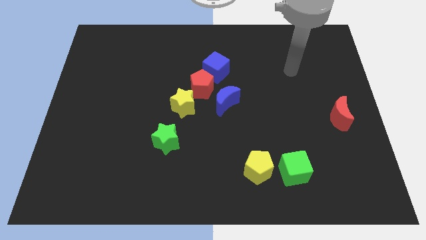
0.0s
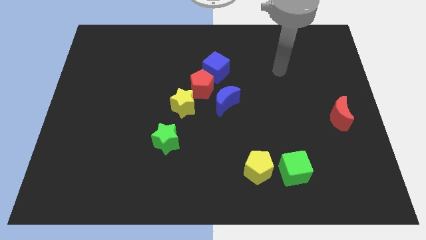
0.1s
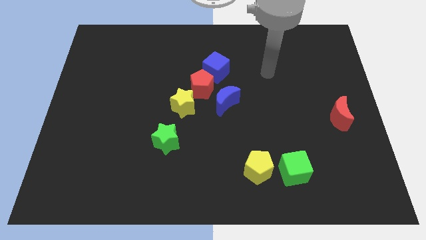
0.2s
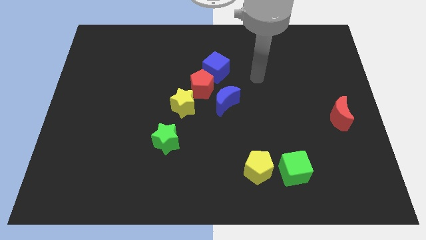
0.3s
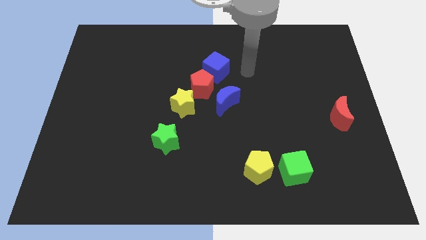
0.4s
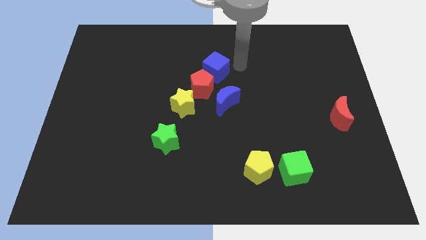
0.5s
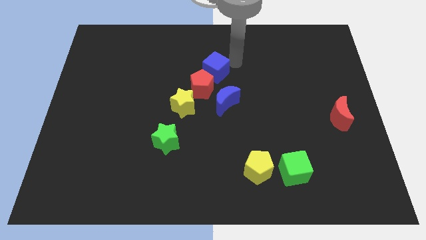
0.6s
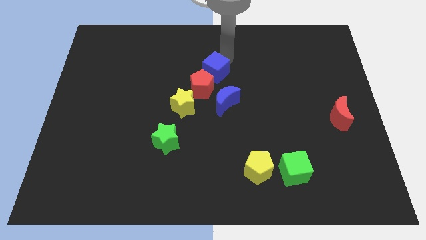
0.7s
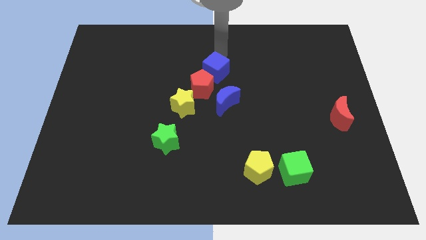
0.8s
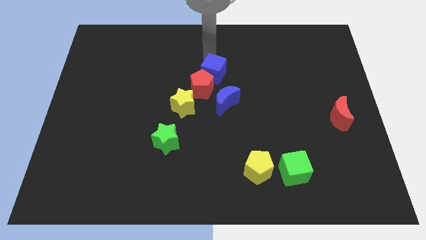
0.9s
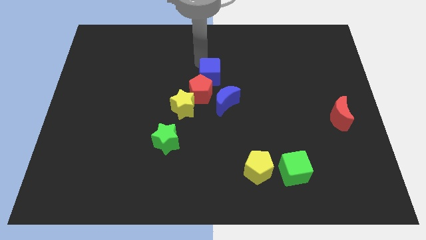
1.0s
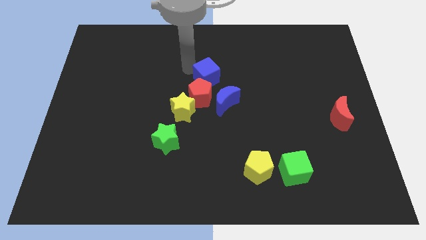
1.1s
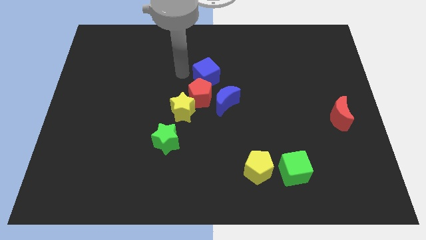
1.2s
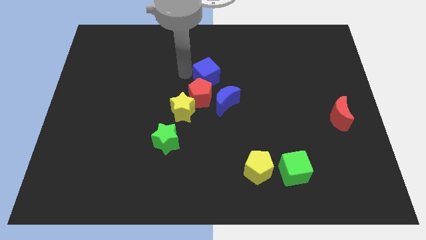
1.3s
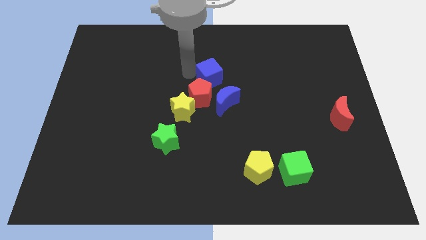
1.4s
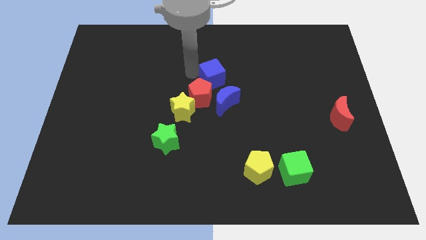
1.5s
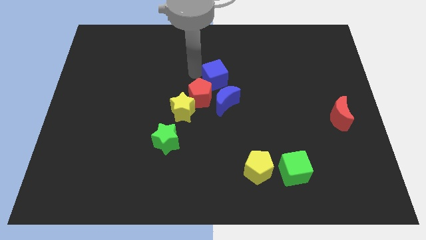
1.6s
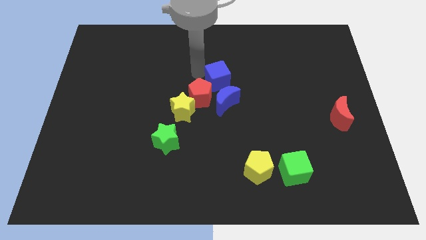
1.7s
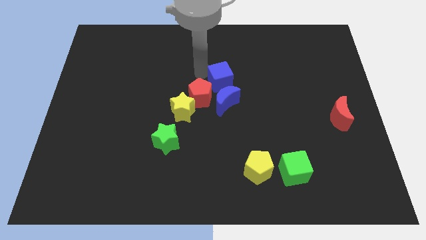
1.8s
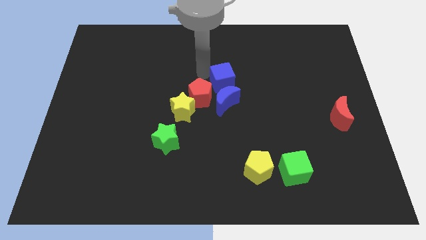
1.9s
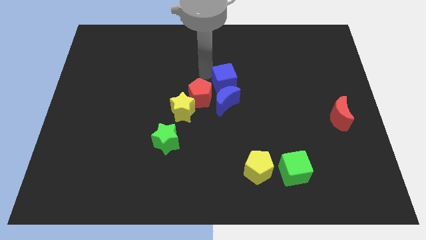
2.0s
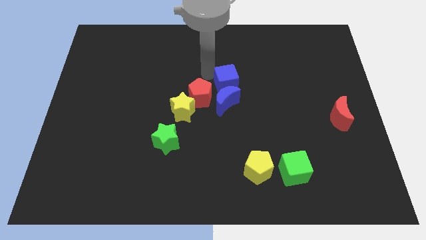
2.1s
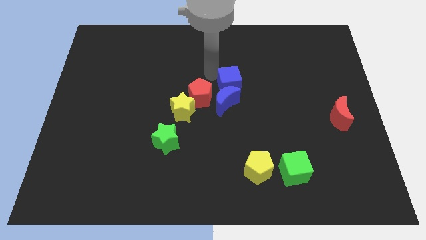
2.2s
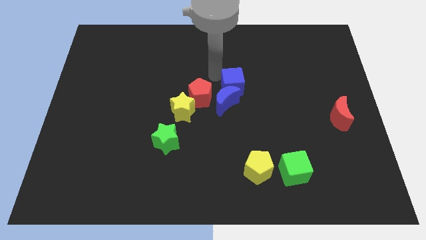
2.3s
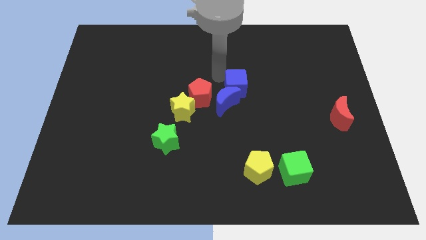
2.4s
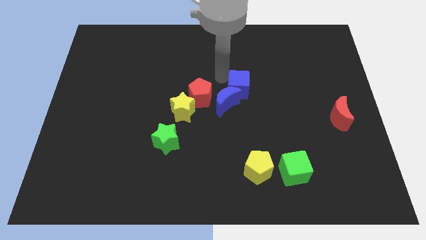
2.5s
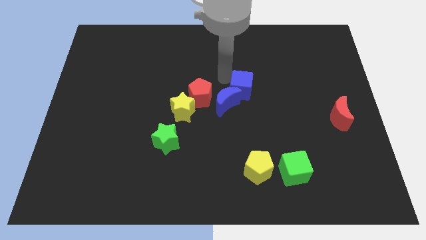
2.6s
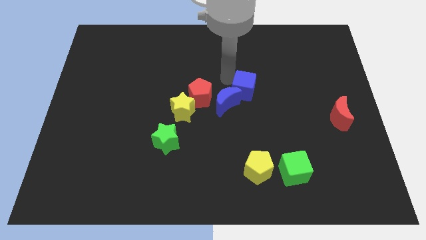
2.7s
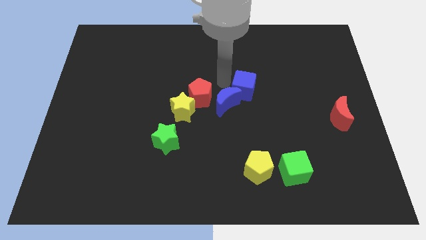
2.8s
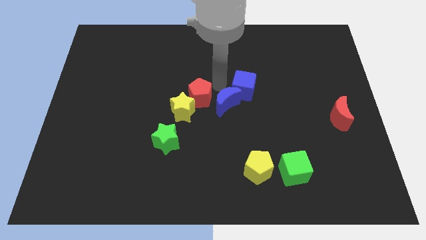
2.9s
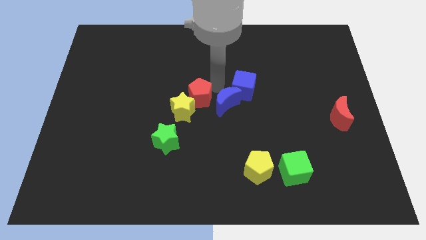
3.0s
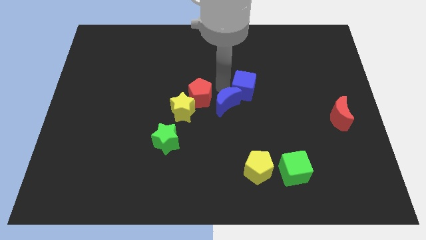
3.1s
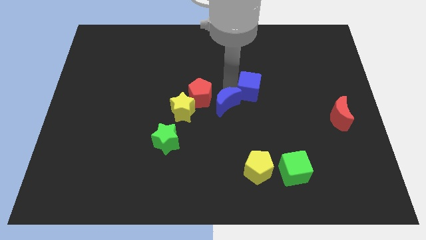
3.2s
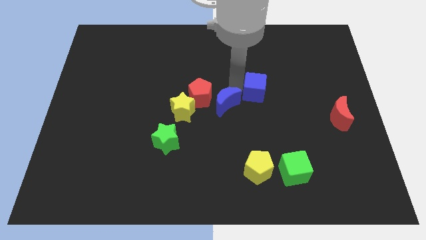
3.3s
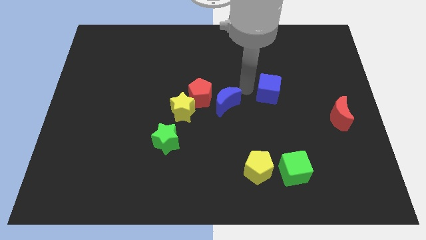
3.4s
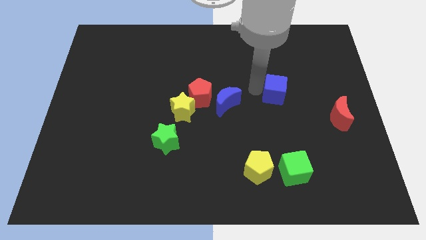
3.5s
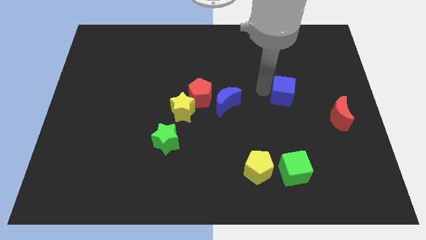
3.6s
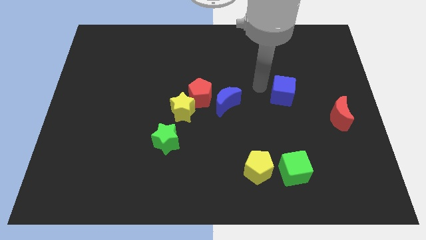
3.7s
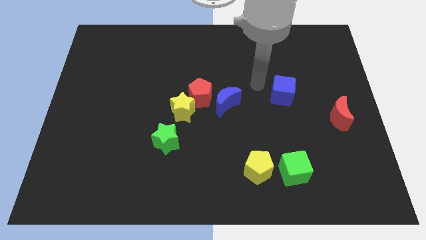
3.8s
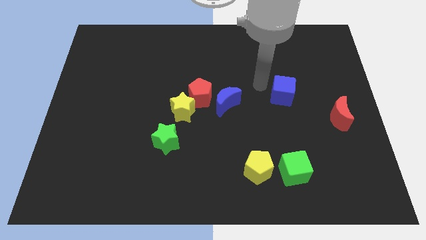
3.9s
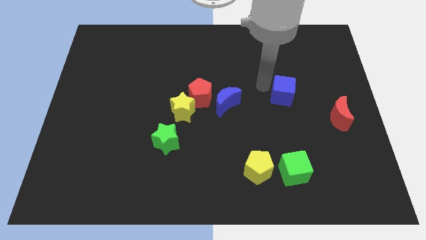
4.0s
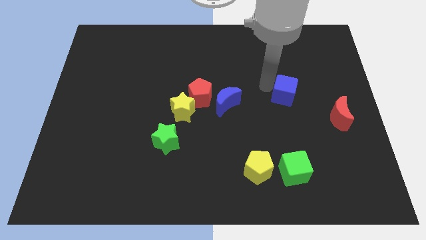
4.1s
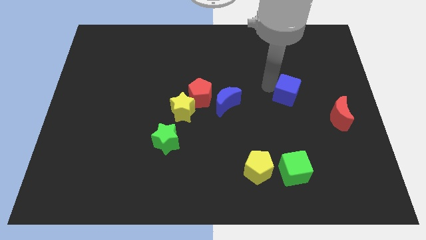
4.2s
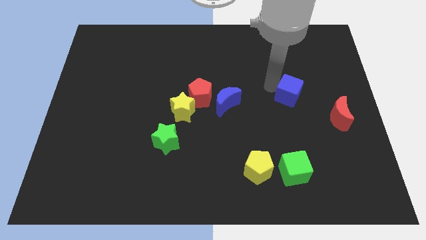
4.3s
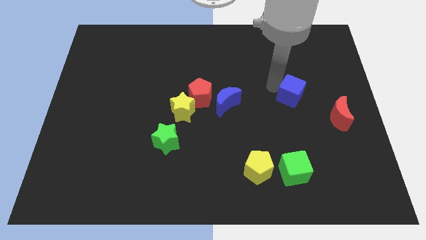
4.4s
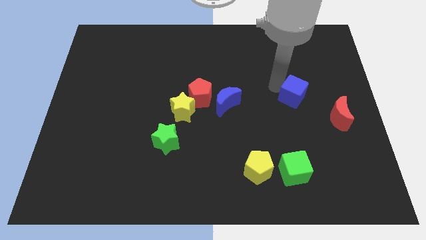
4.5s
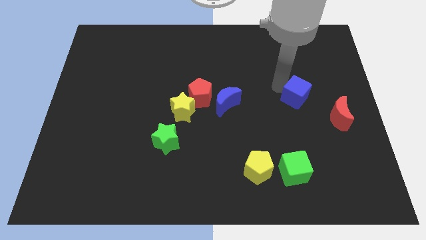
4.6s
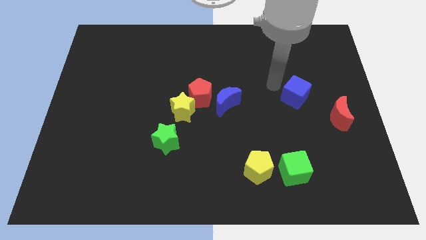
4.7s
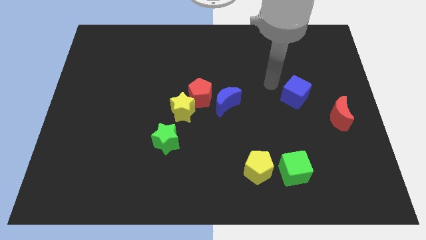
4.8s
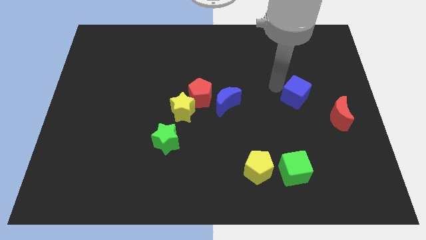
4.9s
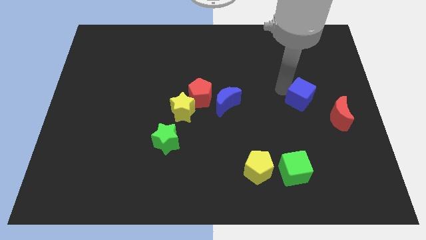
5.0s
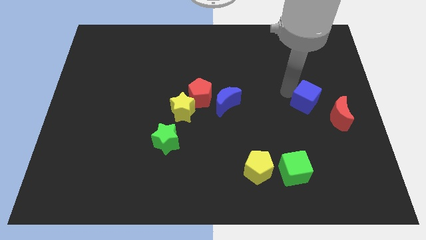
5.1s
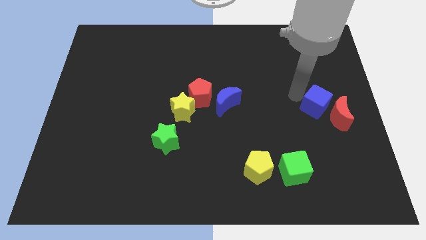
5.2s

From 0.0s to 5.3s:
put the blue cube to the red moon

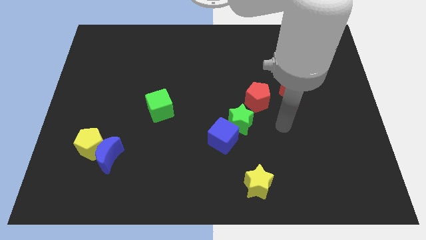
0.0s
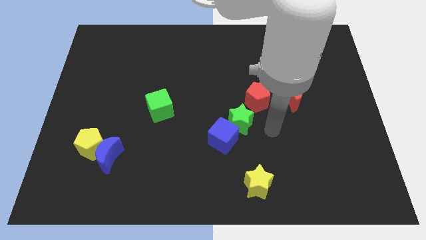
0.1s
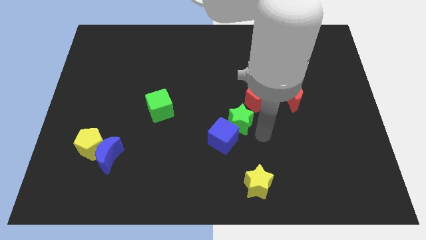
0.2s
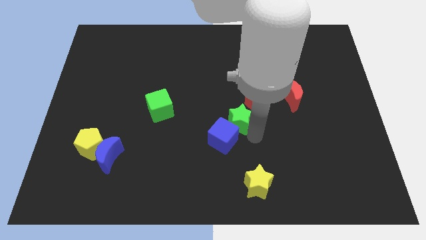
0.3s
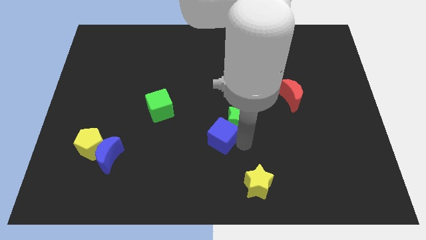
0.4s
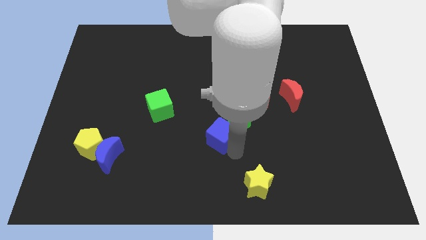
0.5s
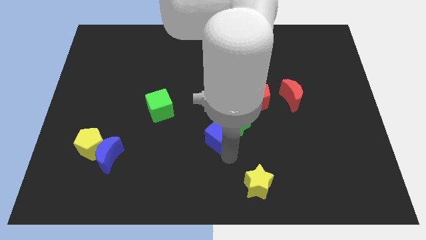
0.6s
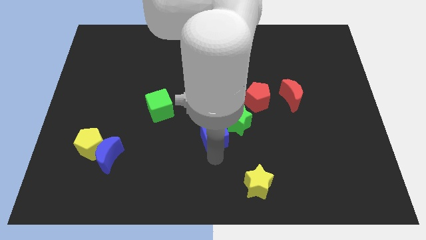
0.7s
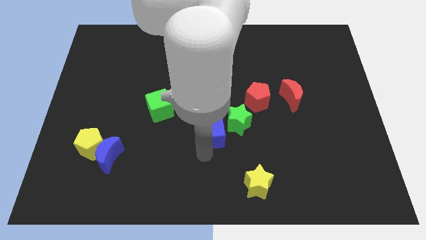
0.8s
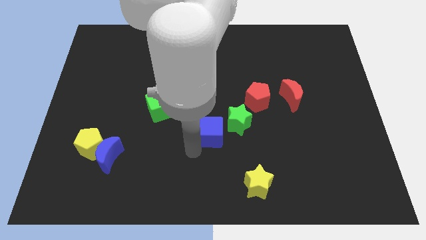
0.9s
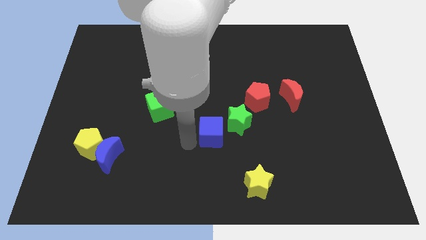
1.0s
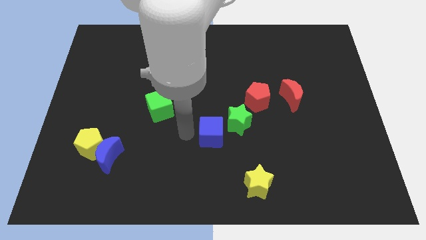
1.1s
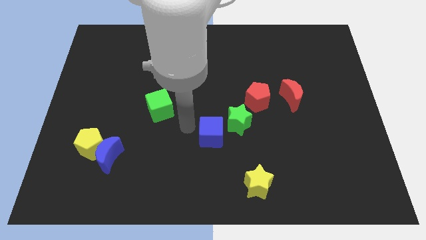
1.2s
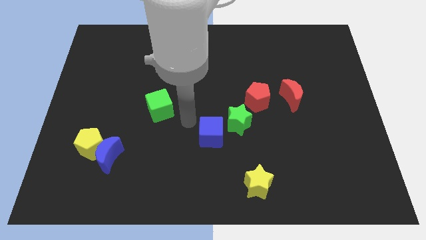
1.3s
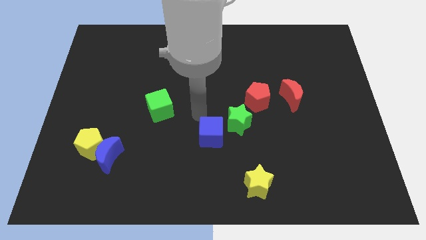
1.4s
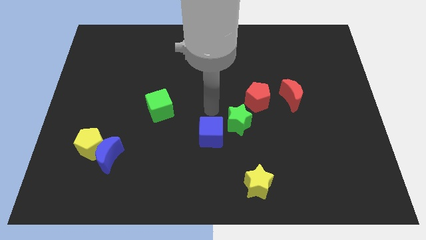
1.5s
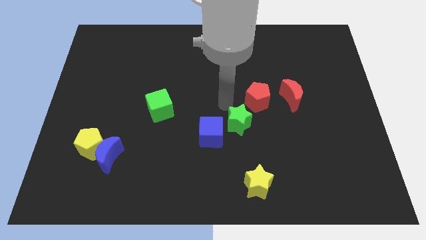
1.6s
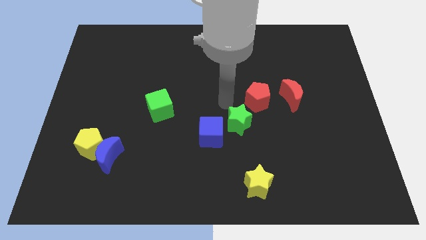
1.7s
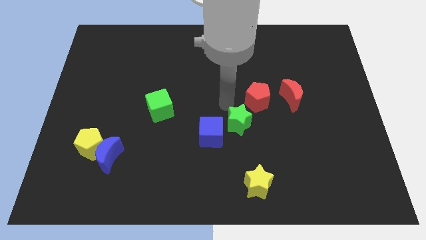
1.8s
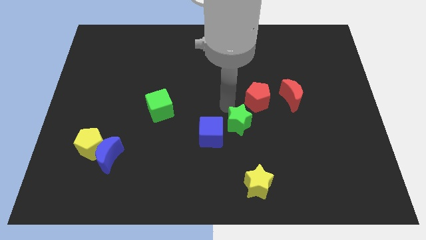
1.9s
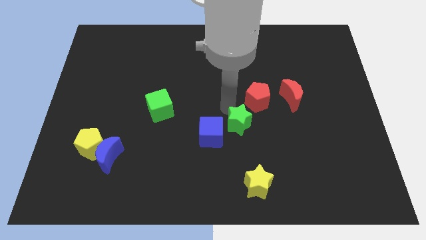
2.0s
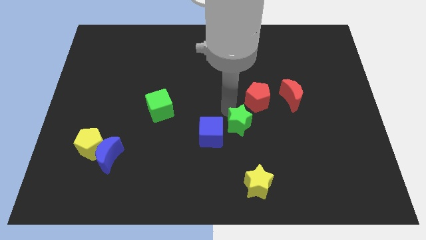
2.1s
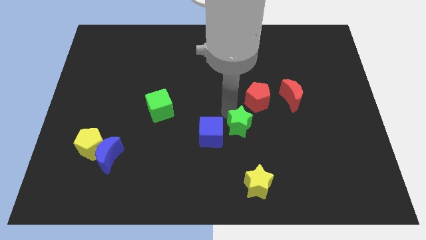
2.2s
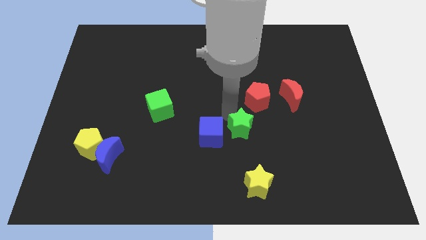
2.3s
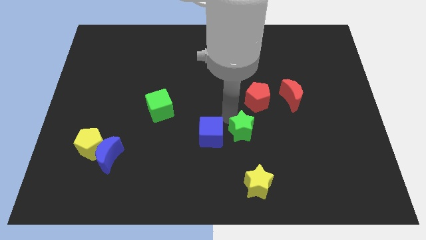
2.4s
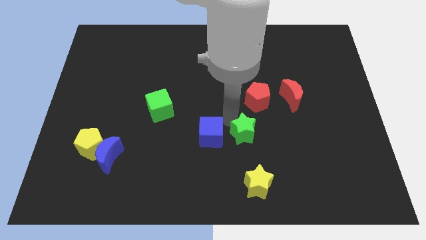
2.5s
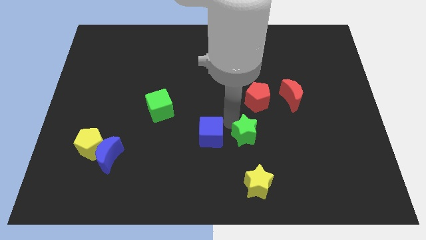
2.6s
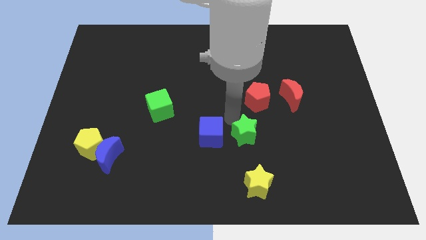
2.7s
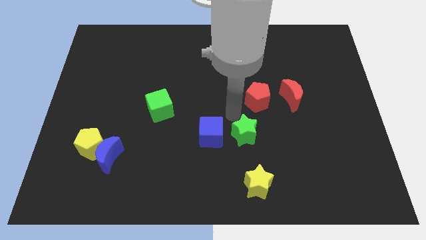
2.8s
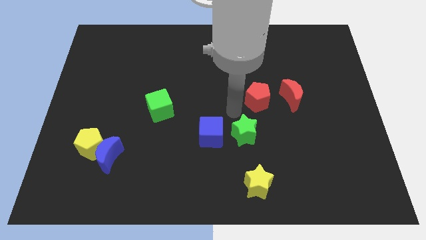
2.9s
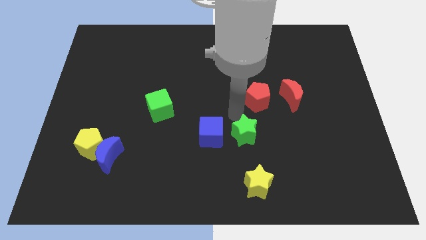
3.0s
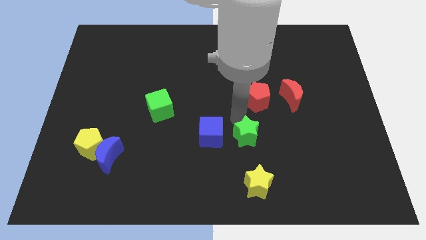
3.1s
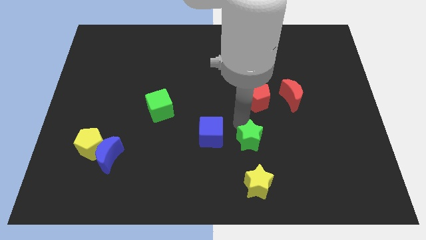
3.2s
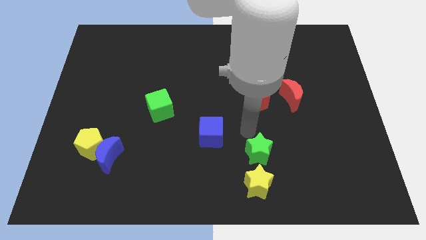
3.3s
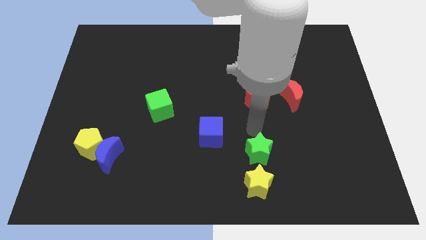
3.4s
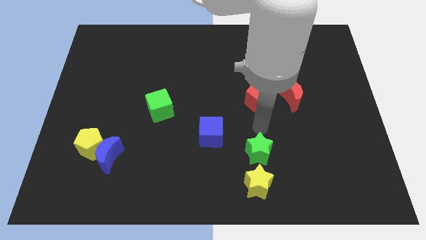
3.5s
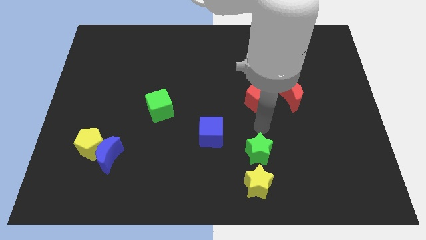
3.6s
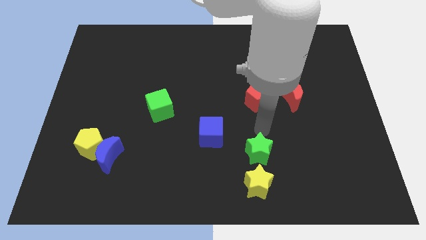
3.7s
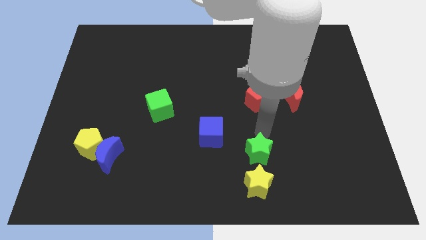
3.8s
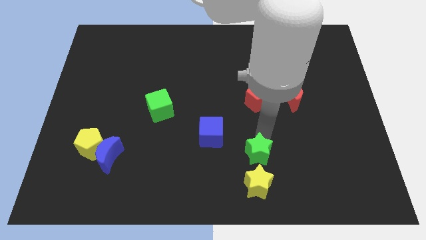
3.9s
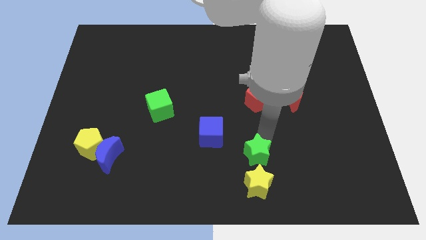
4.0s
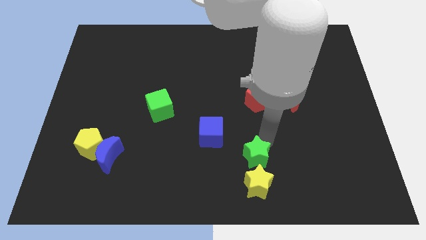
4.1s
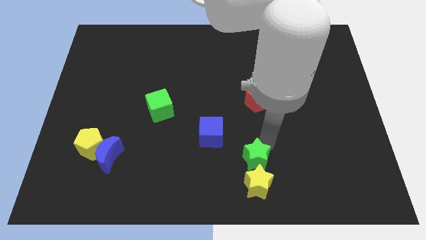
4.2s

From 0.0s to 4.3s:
slide the green star next to the yellow star
